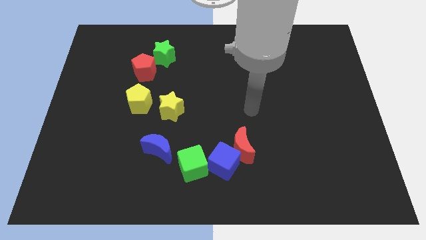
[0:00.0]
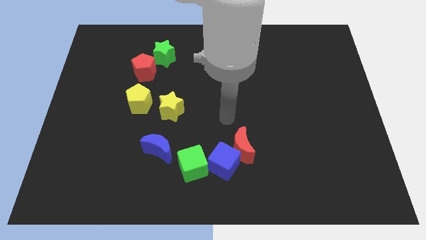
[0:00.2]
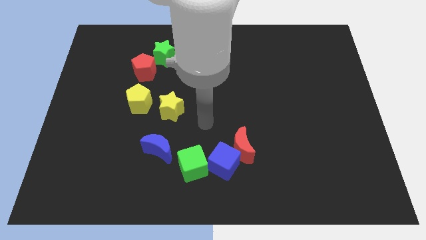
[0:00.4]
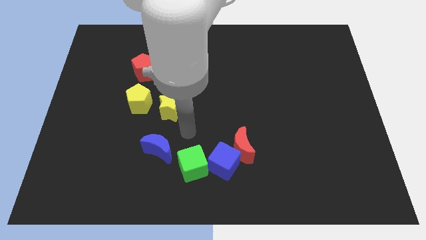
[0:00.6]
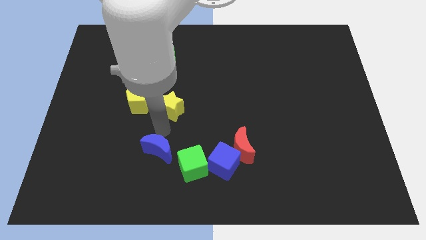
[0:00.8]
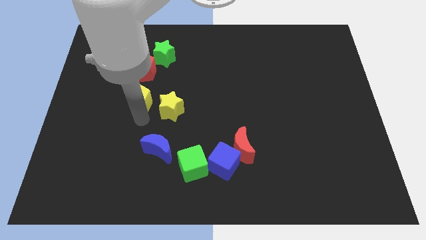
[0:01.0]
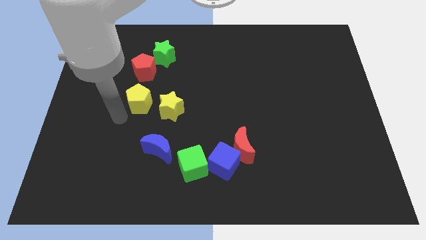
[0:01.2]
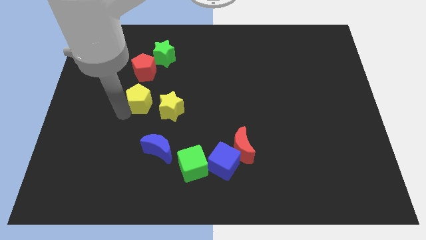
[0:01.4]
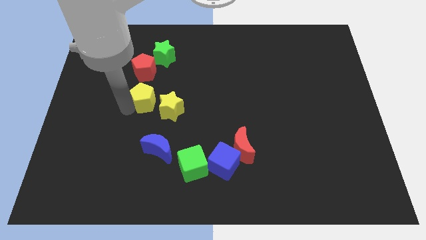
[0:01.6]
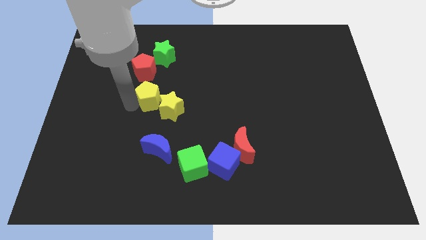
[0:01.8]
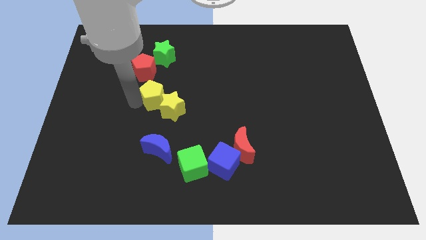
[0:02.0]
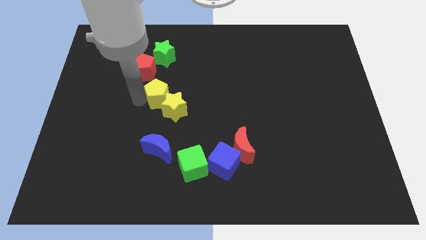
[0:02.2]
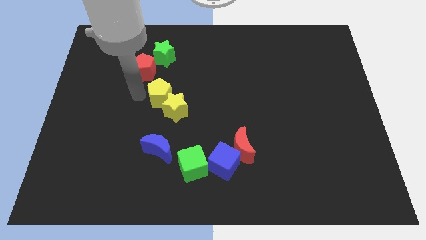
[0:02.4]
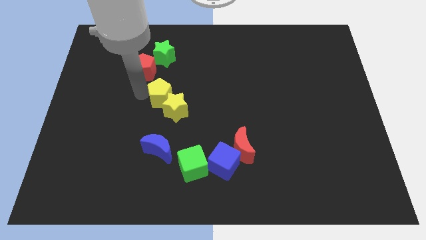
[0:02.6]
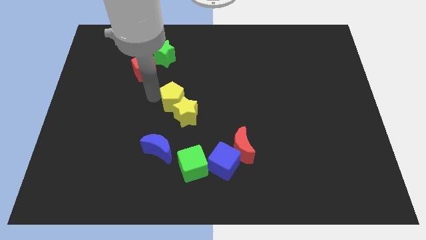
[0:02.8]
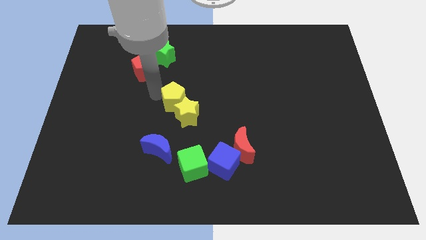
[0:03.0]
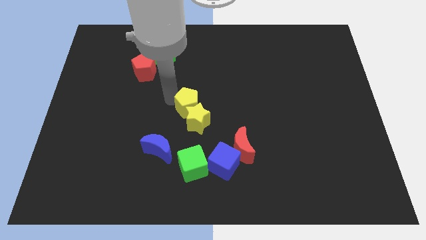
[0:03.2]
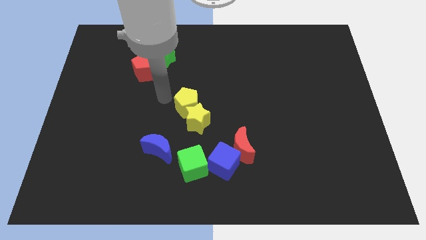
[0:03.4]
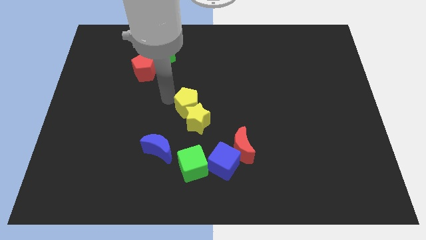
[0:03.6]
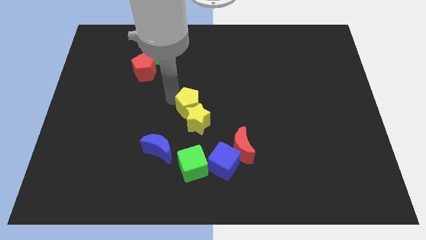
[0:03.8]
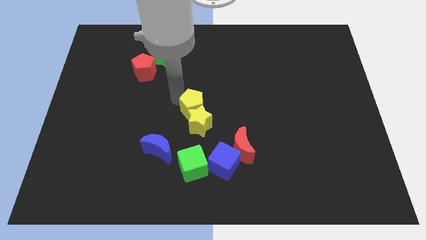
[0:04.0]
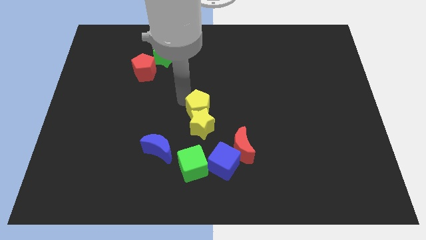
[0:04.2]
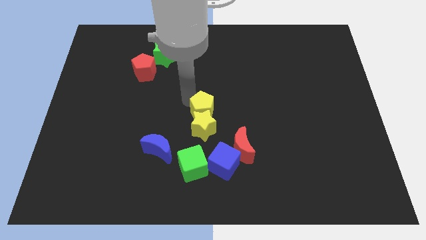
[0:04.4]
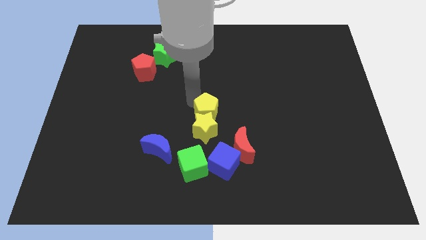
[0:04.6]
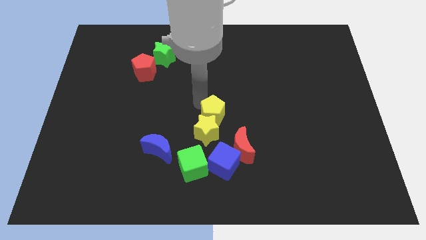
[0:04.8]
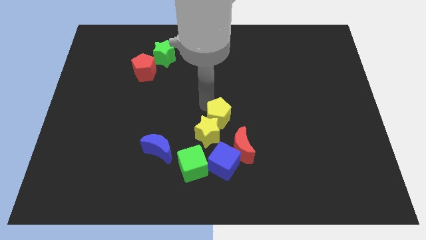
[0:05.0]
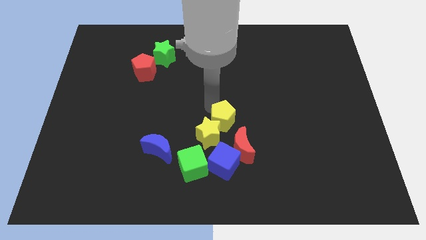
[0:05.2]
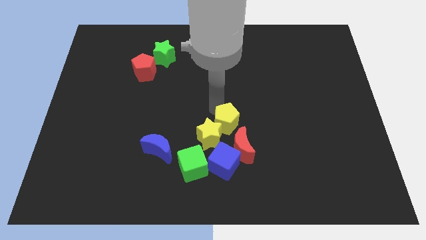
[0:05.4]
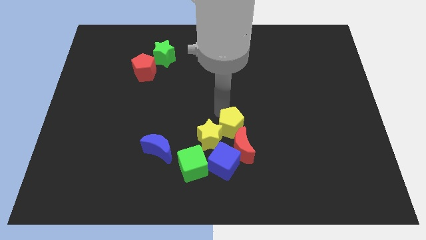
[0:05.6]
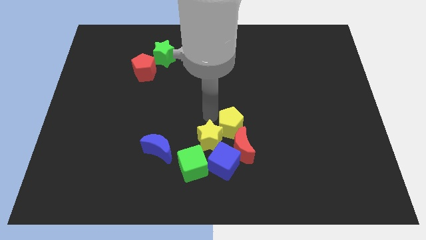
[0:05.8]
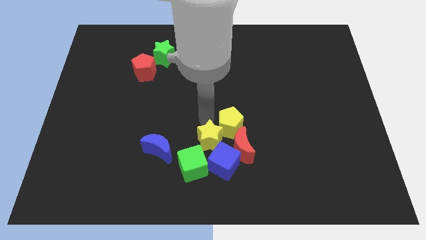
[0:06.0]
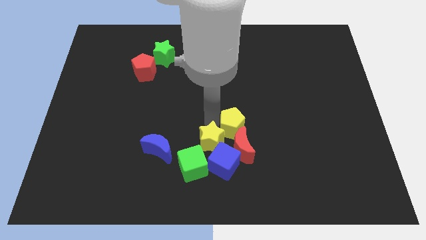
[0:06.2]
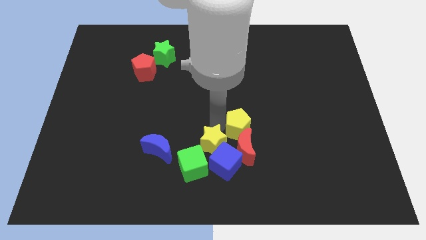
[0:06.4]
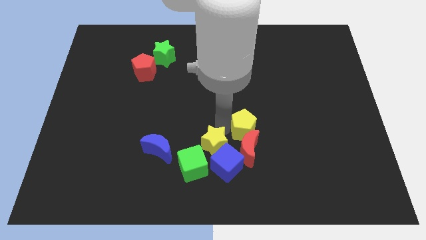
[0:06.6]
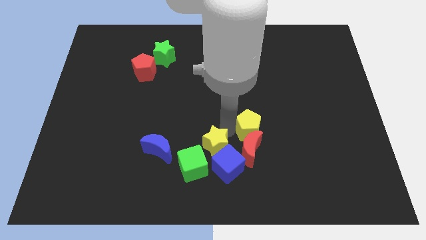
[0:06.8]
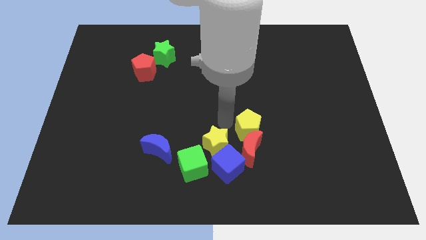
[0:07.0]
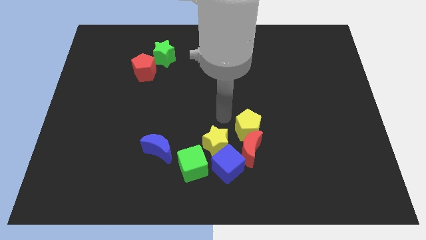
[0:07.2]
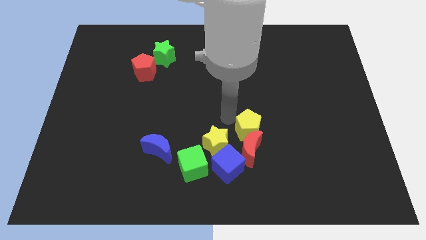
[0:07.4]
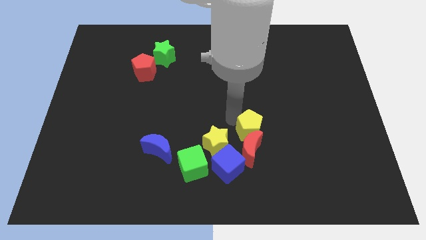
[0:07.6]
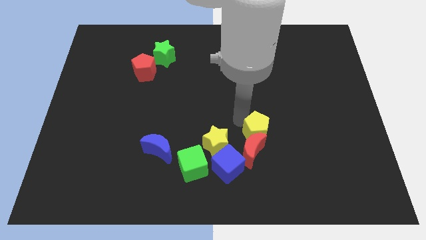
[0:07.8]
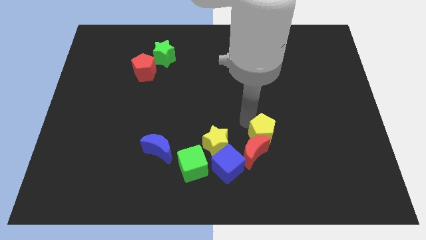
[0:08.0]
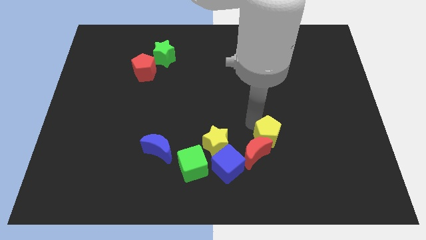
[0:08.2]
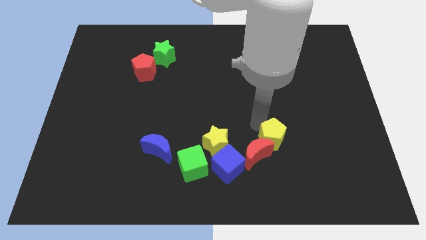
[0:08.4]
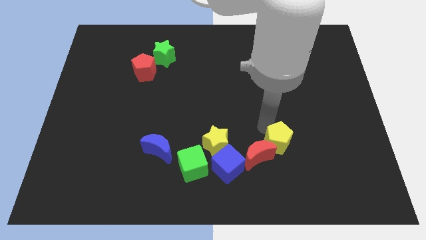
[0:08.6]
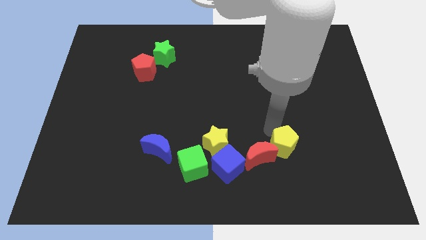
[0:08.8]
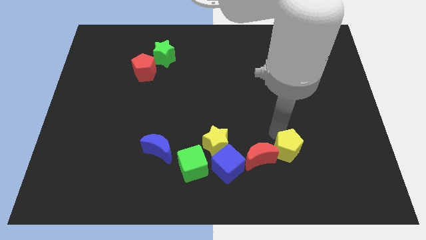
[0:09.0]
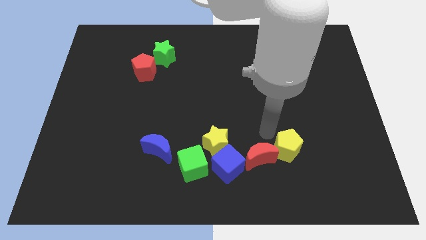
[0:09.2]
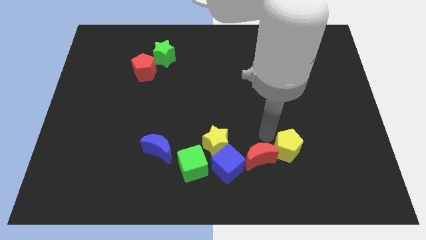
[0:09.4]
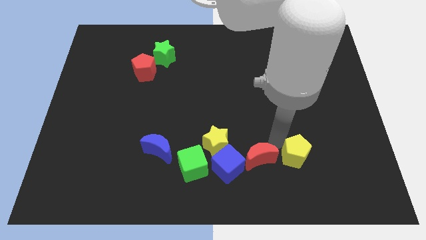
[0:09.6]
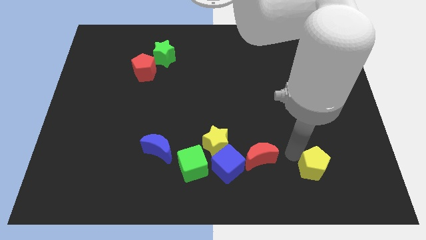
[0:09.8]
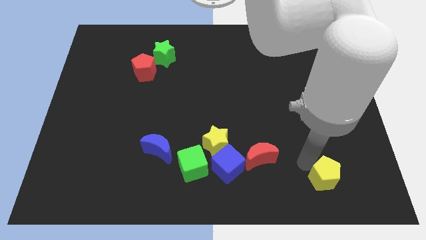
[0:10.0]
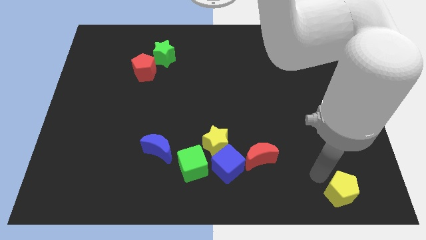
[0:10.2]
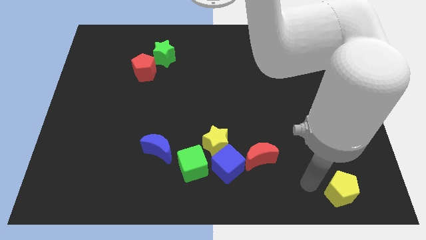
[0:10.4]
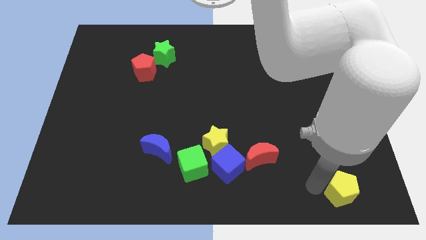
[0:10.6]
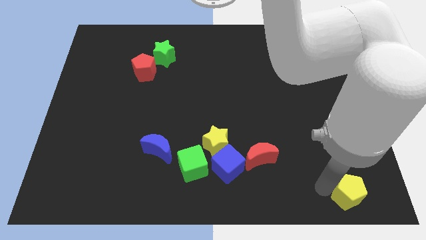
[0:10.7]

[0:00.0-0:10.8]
move the yellow pentagon to the lower right corner

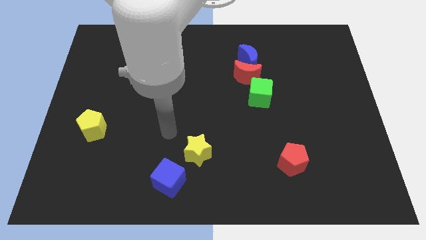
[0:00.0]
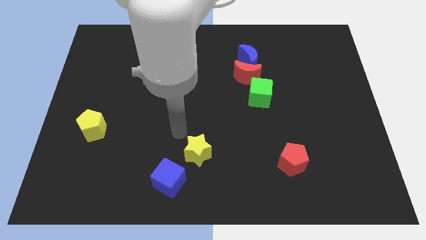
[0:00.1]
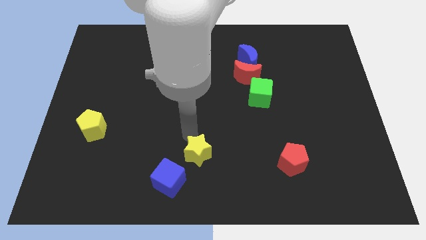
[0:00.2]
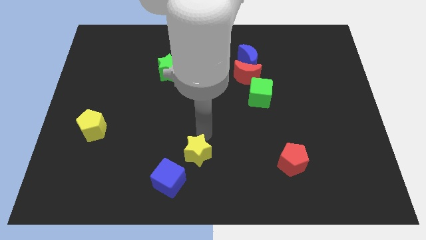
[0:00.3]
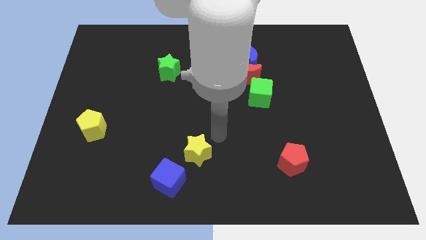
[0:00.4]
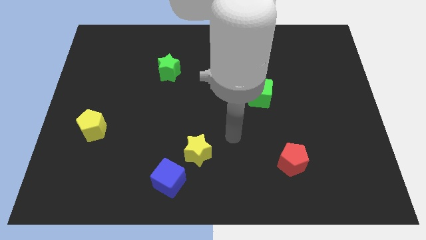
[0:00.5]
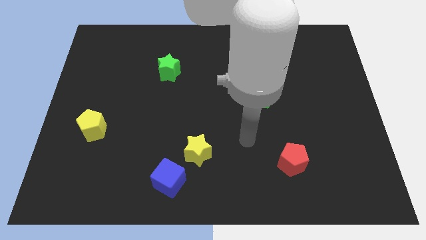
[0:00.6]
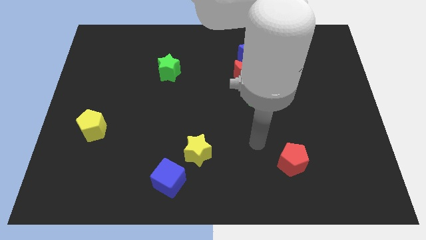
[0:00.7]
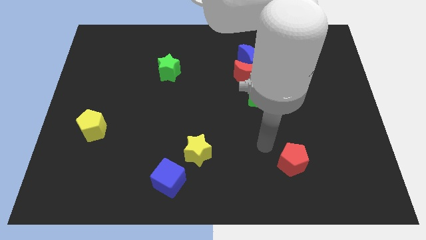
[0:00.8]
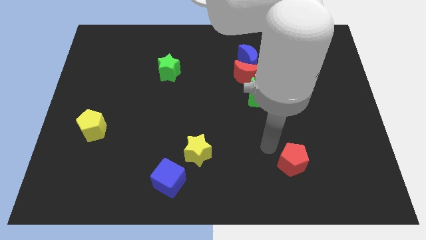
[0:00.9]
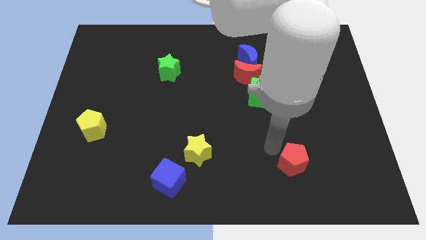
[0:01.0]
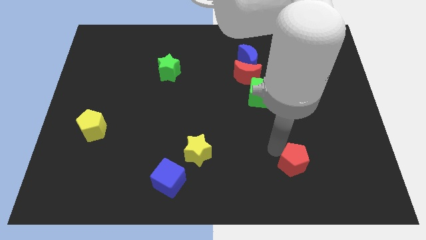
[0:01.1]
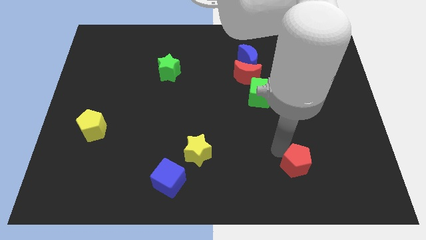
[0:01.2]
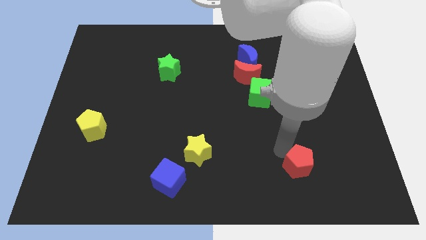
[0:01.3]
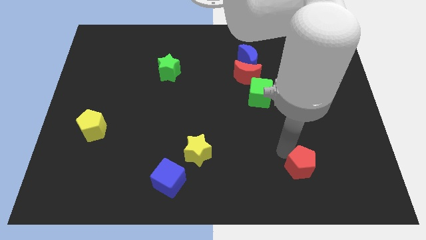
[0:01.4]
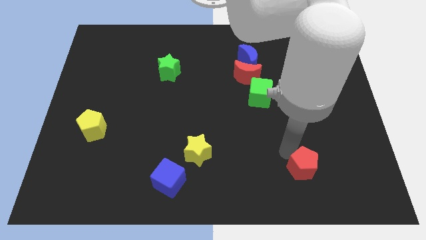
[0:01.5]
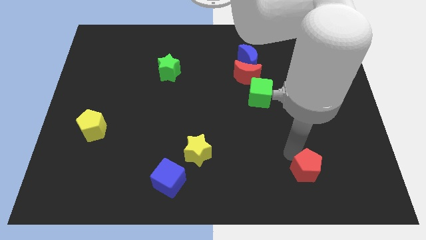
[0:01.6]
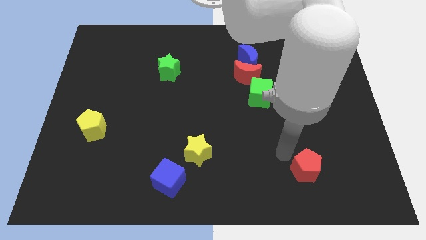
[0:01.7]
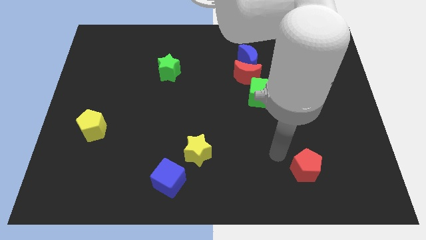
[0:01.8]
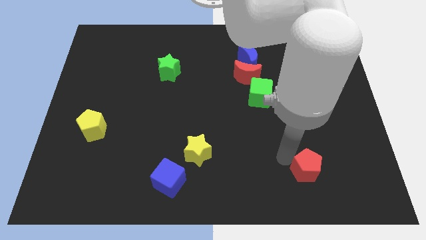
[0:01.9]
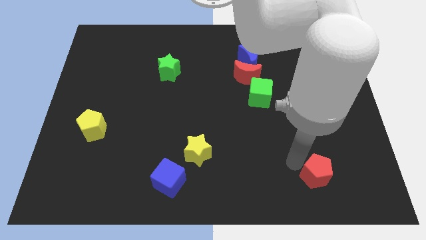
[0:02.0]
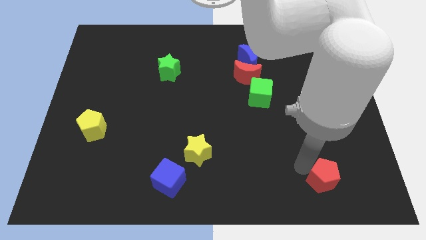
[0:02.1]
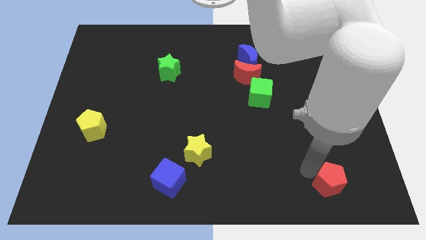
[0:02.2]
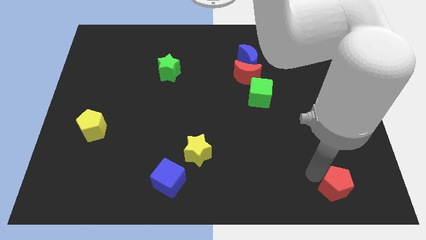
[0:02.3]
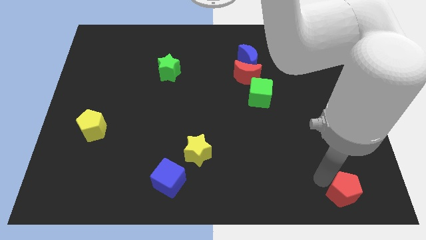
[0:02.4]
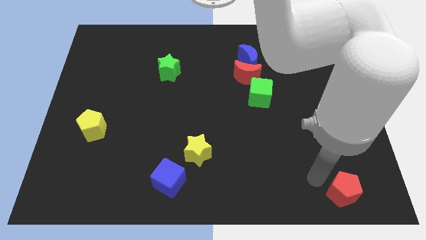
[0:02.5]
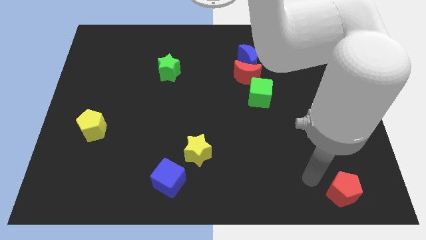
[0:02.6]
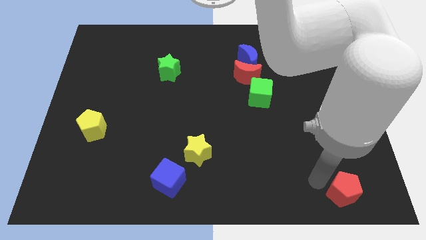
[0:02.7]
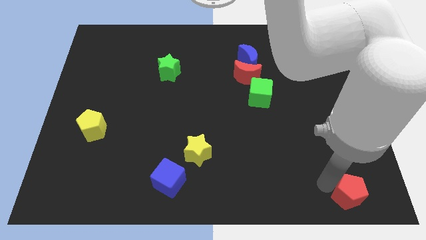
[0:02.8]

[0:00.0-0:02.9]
move the red pentagon to the lower right corner
